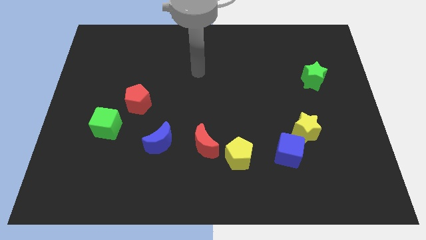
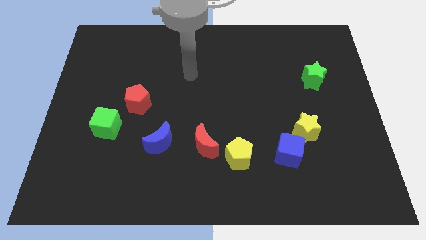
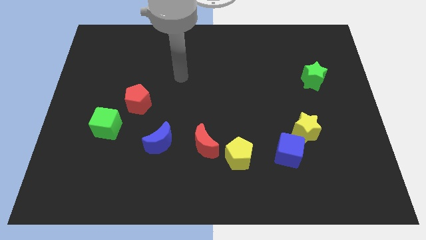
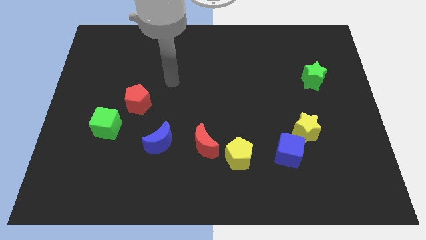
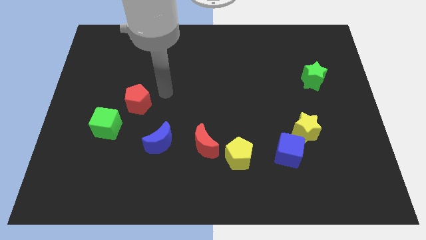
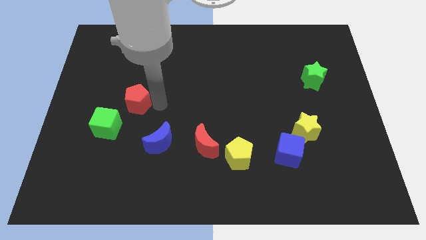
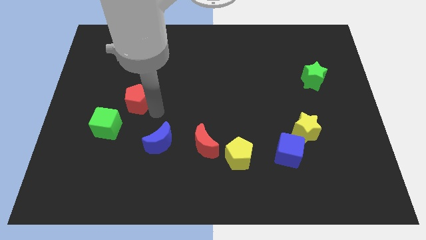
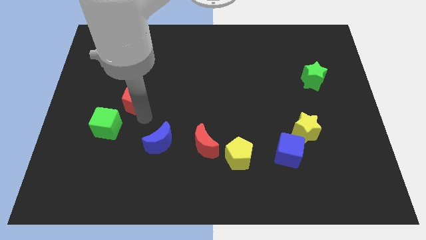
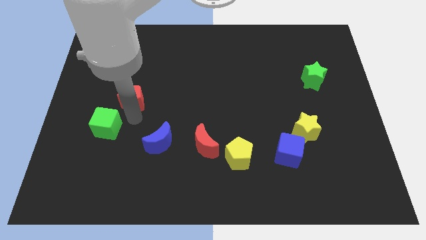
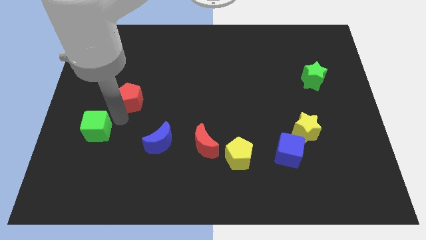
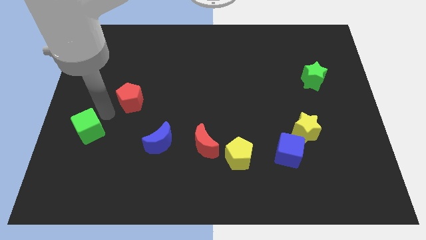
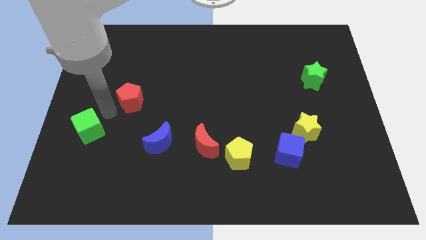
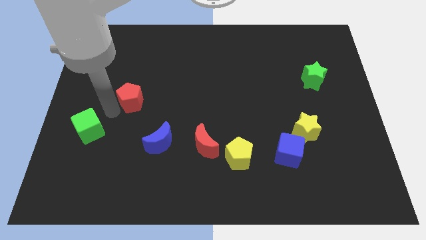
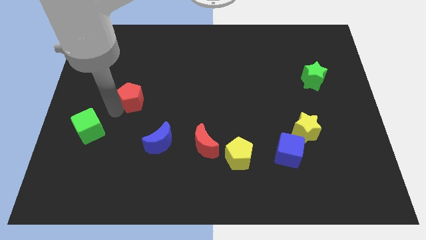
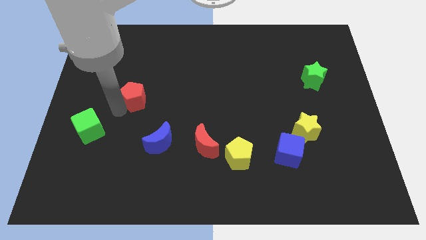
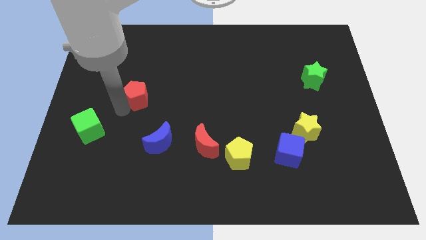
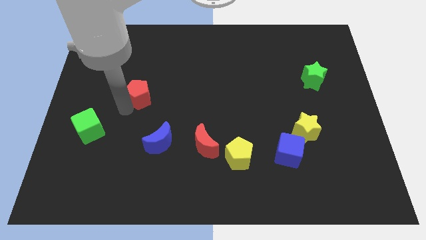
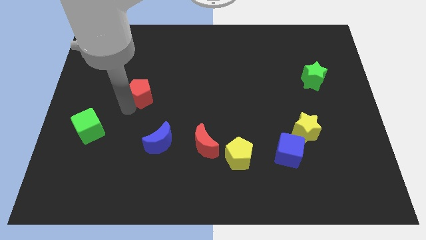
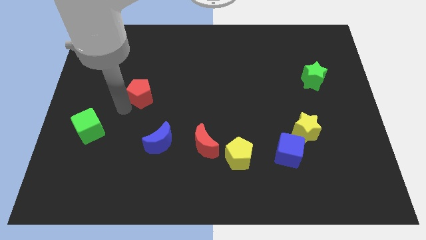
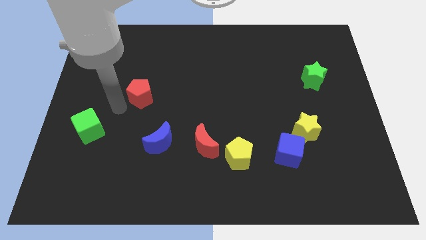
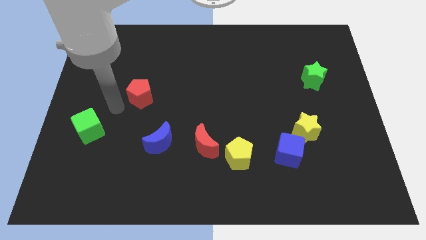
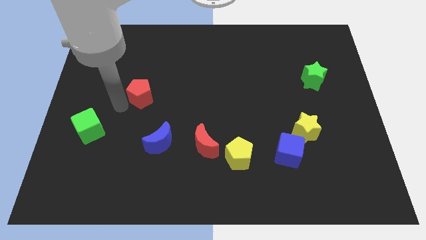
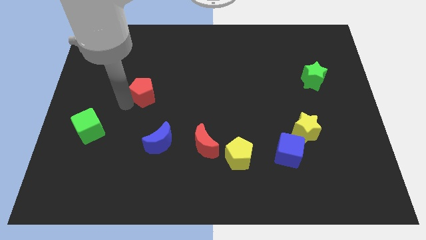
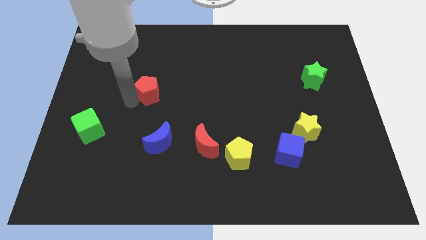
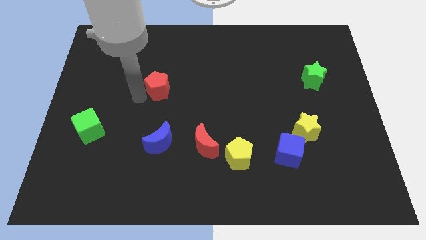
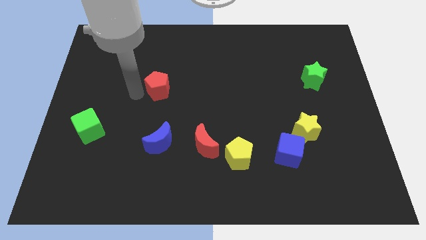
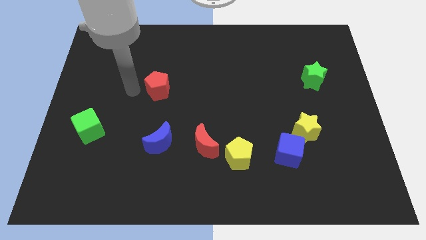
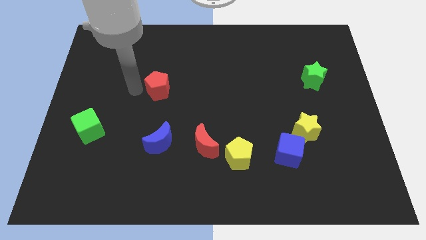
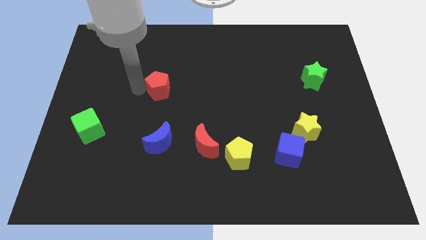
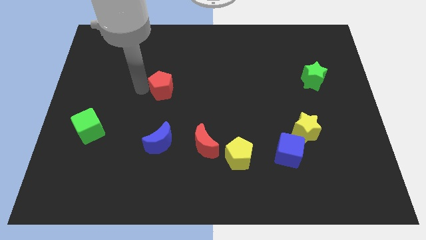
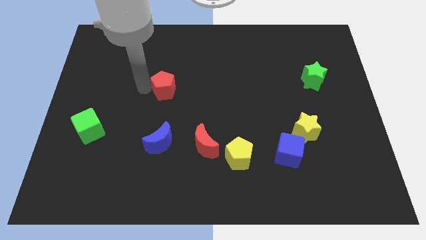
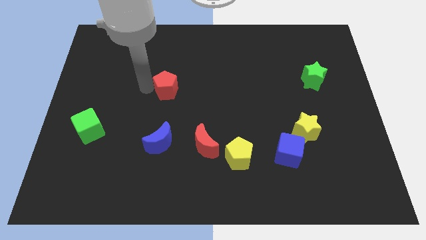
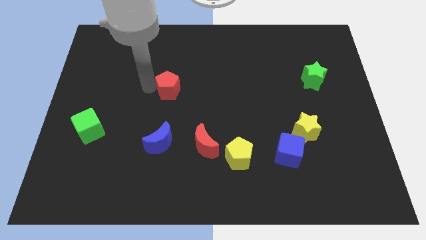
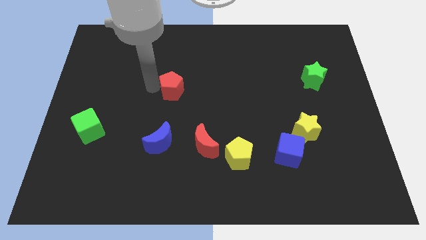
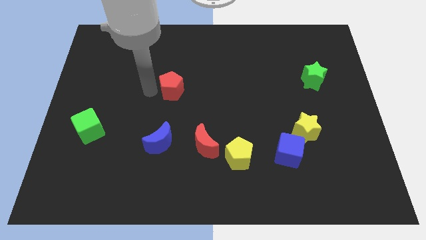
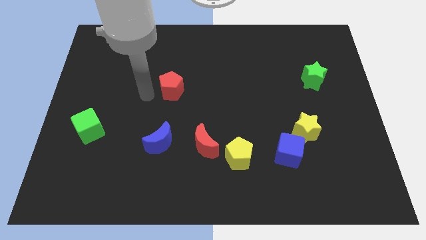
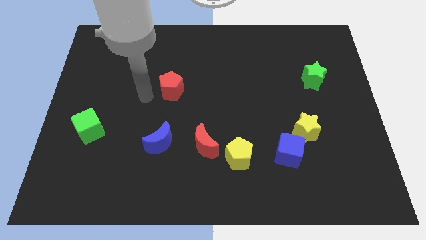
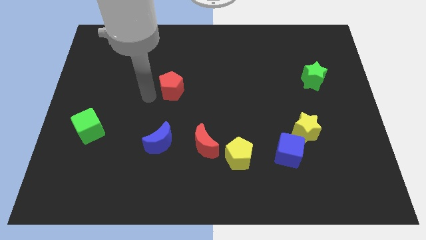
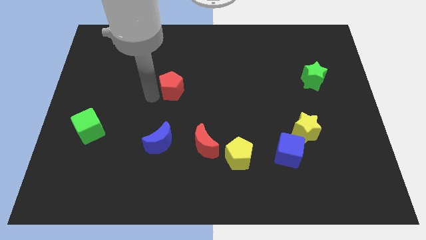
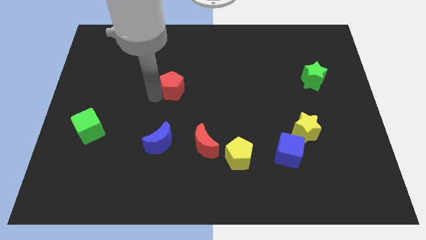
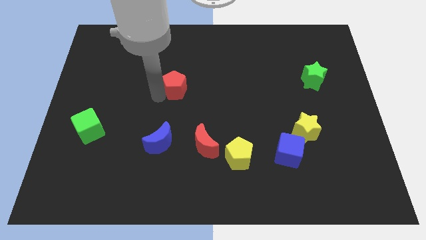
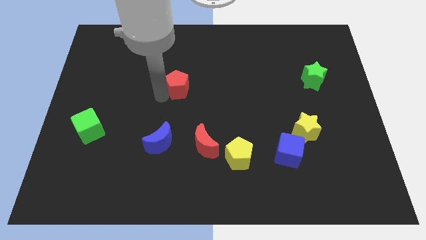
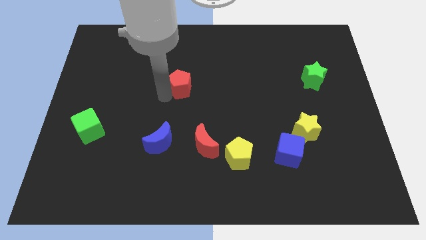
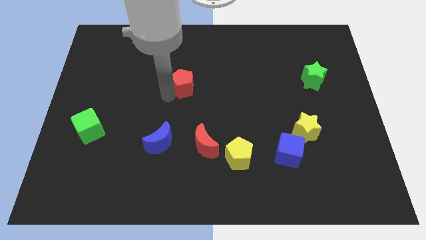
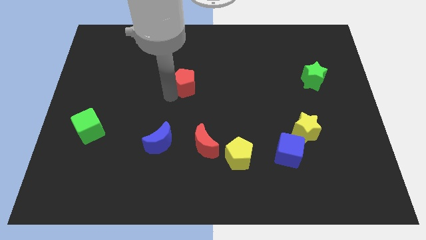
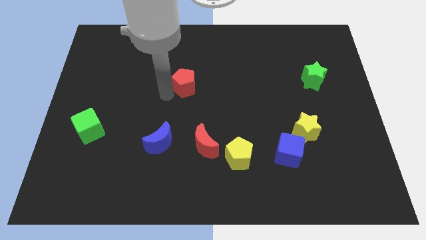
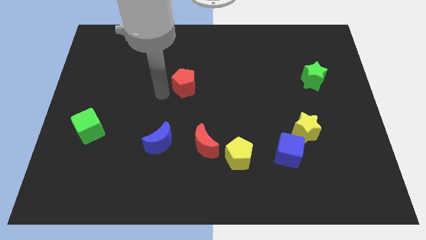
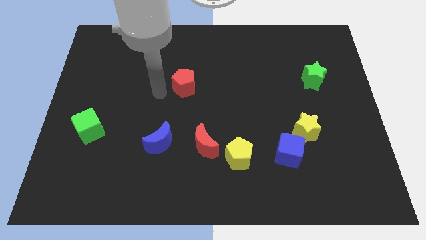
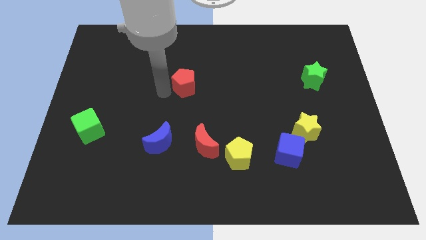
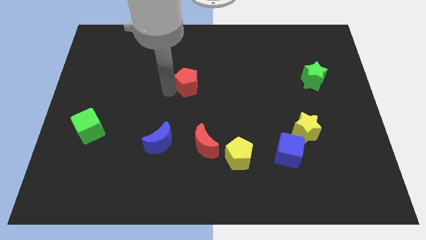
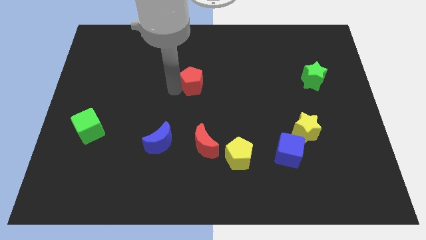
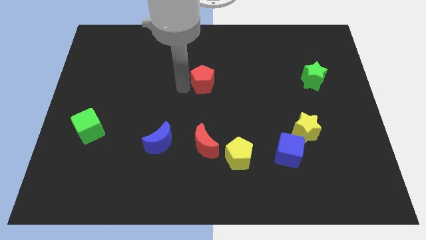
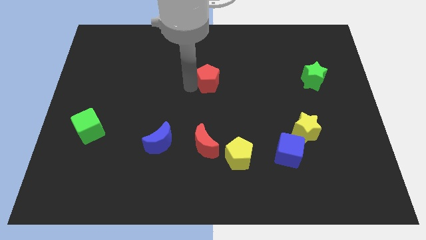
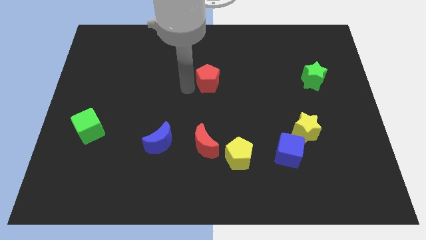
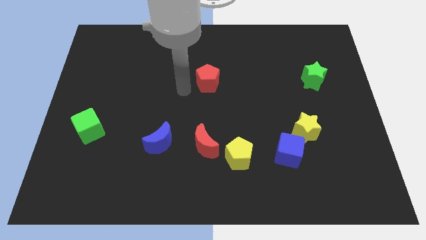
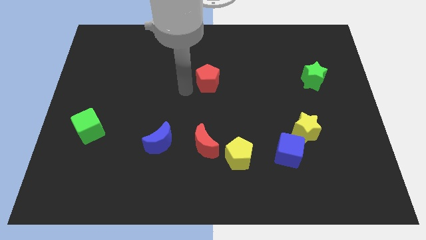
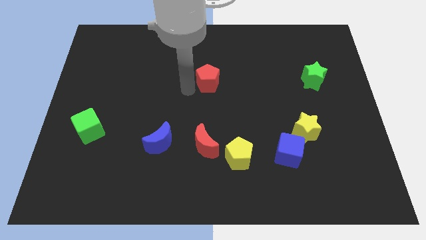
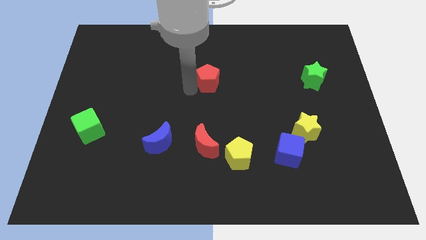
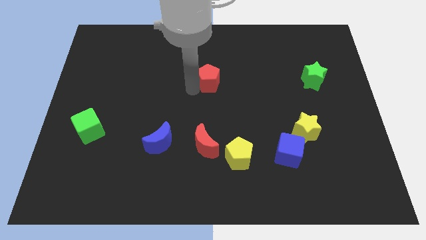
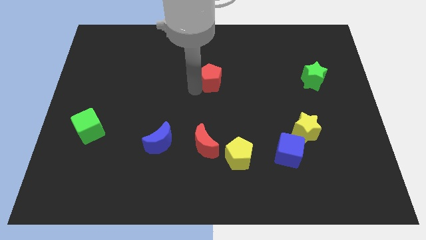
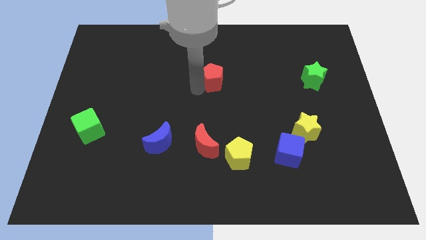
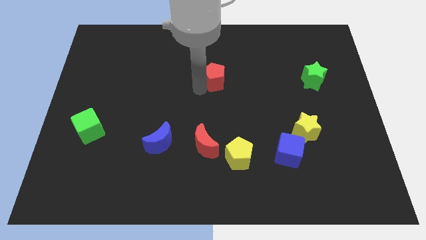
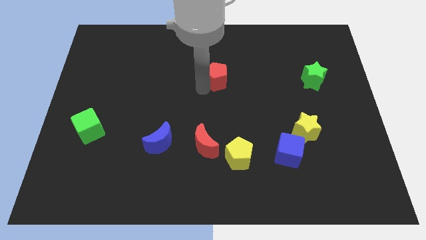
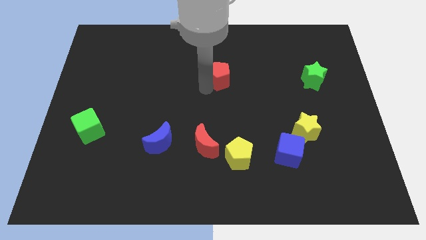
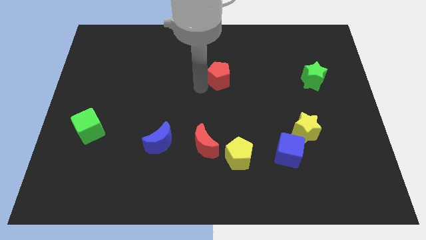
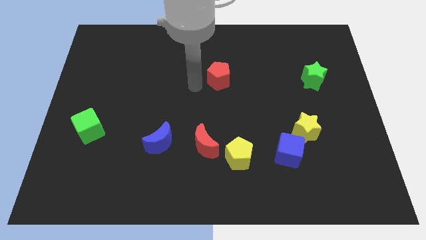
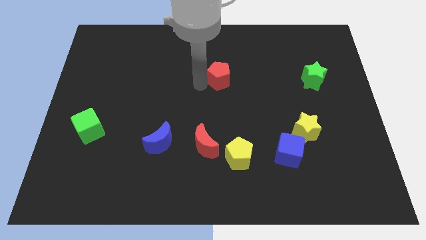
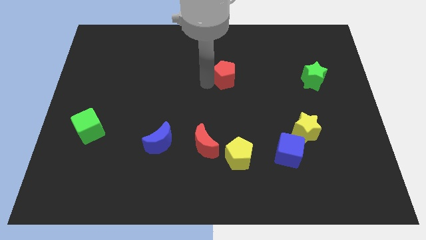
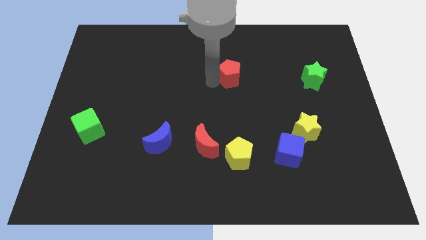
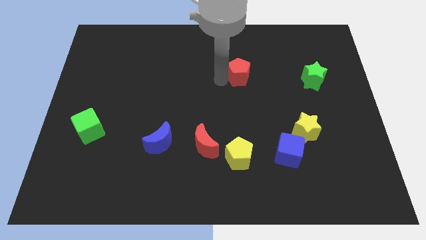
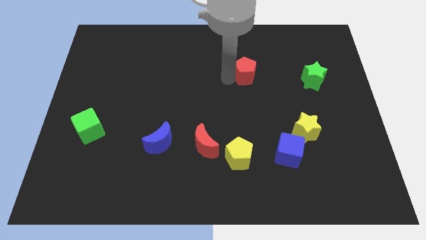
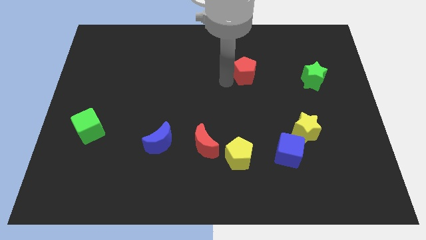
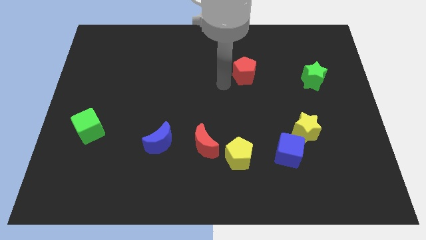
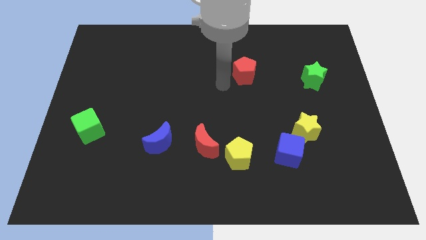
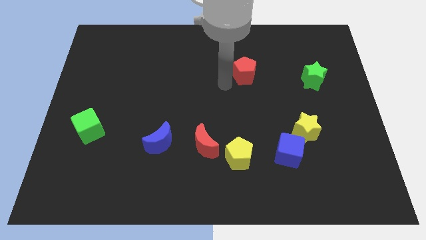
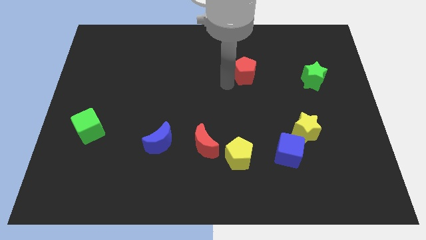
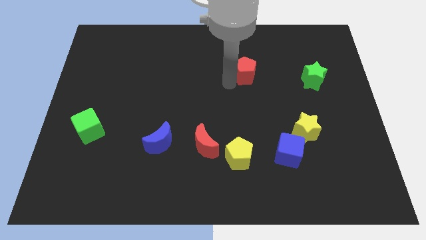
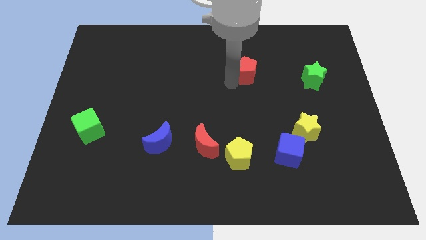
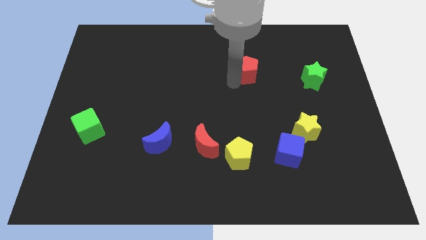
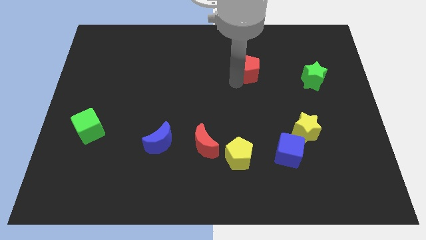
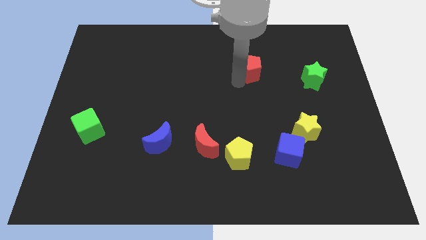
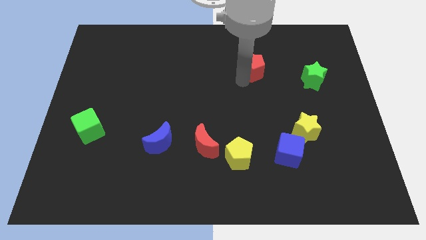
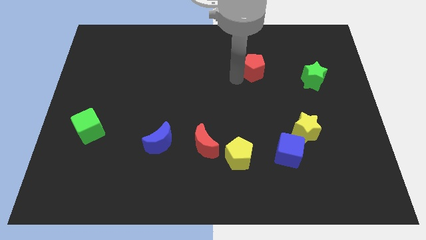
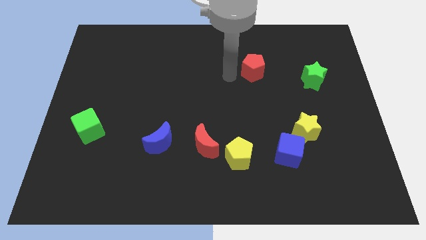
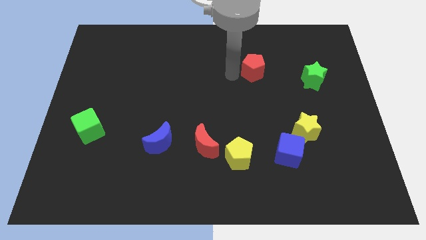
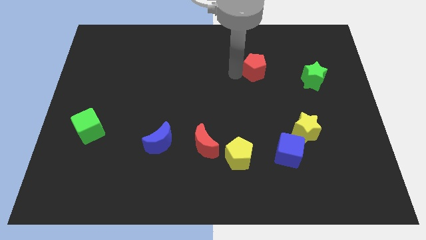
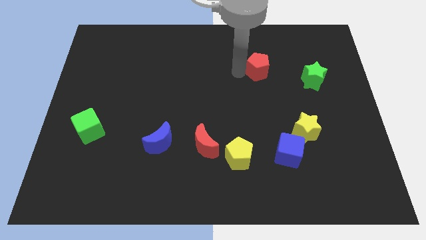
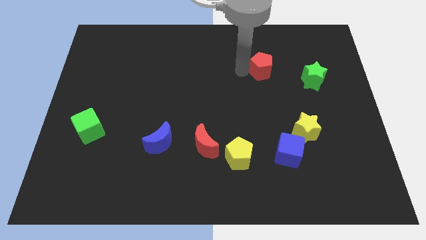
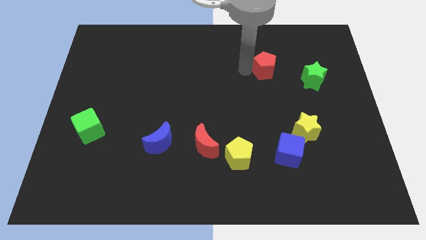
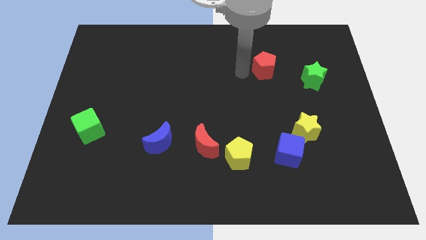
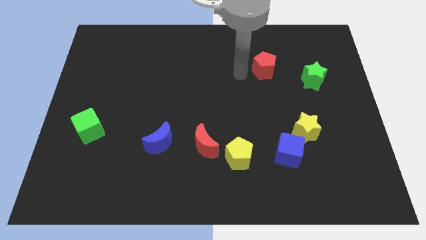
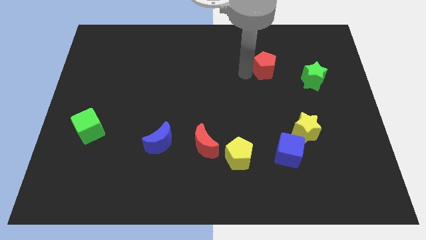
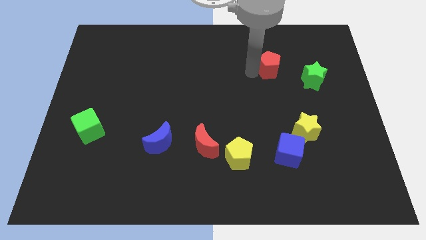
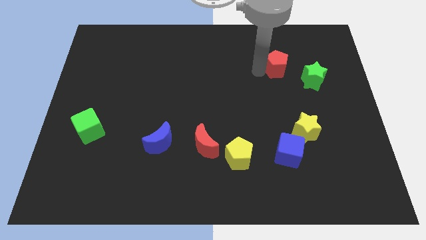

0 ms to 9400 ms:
slide the red pentagon to the top left of the green star
